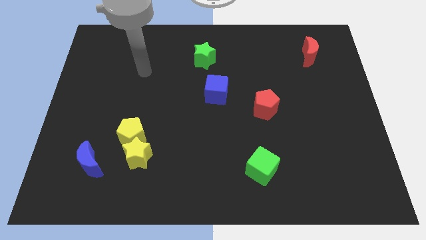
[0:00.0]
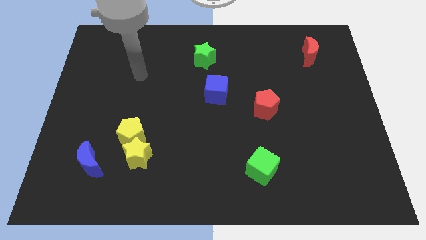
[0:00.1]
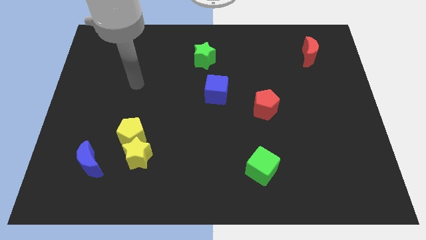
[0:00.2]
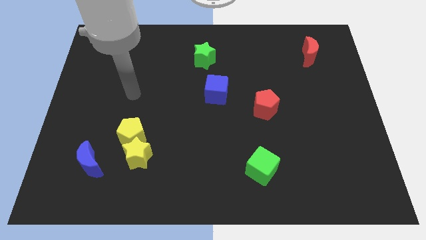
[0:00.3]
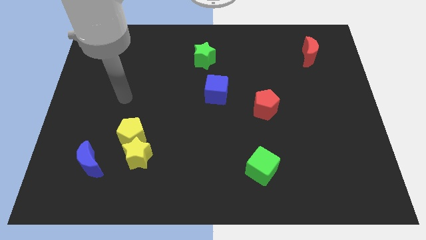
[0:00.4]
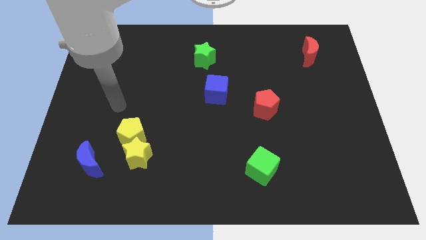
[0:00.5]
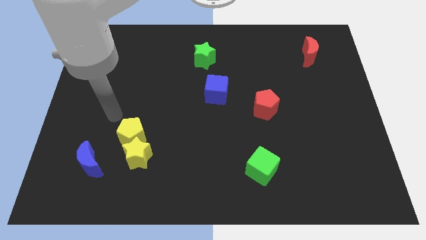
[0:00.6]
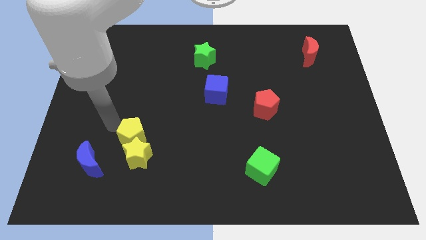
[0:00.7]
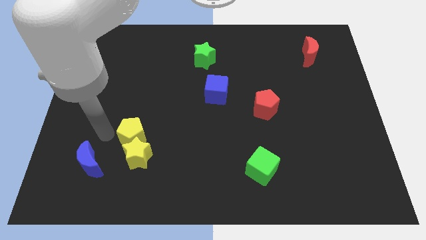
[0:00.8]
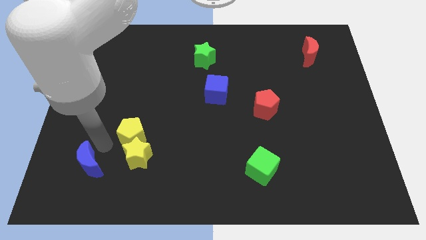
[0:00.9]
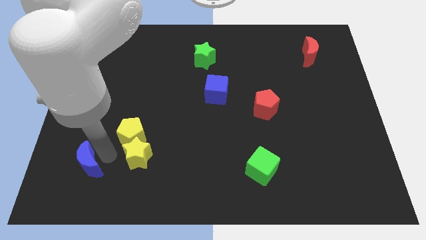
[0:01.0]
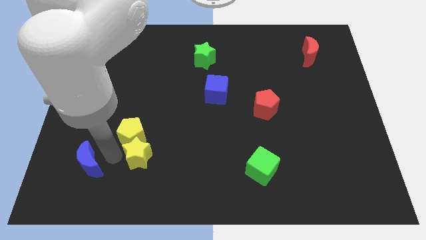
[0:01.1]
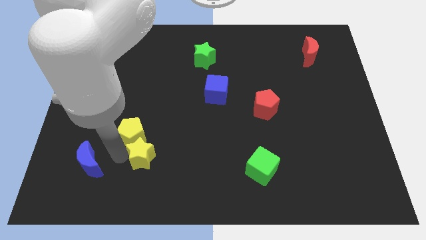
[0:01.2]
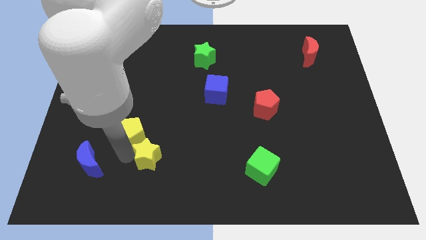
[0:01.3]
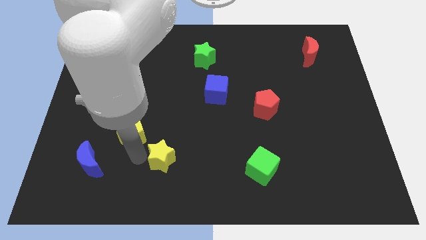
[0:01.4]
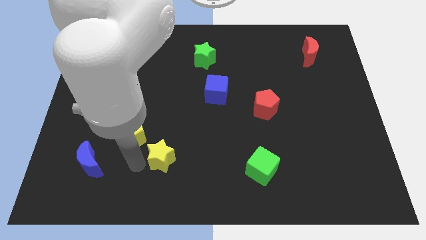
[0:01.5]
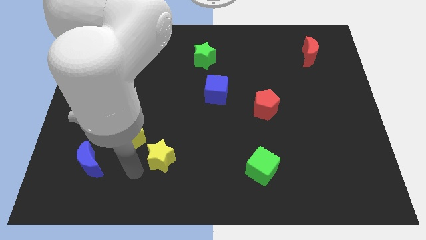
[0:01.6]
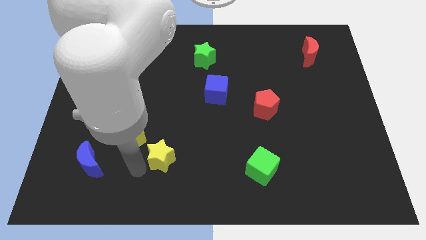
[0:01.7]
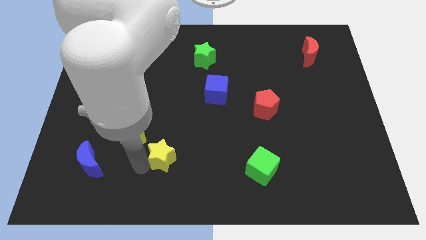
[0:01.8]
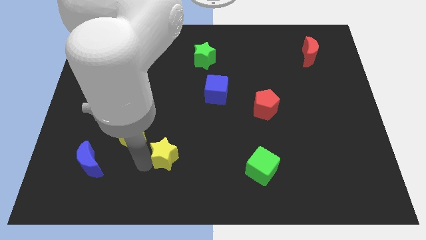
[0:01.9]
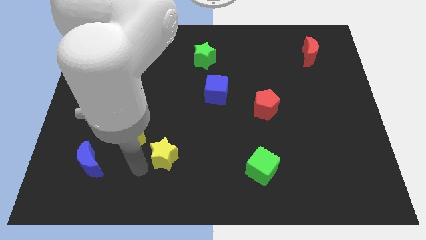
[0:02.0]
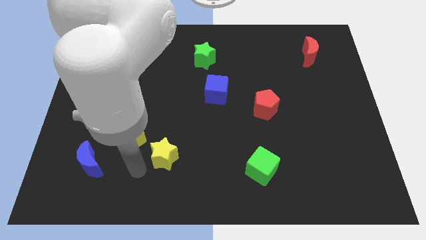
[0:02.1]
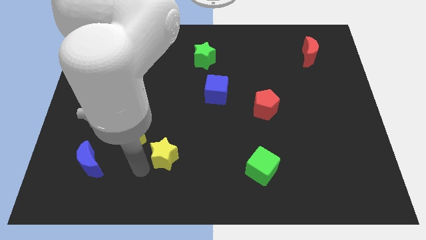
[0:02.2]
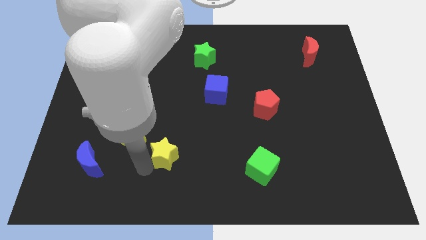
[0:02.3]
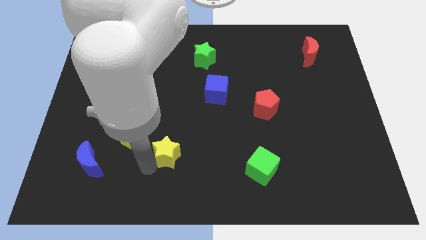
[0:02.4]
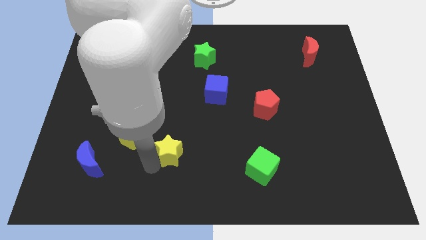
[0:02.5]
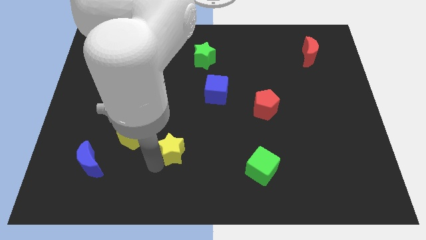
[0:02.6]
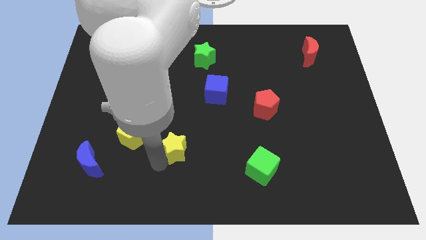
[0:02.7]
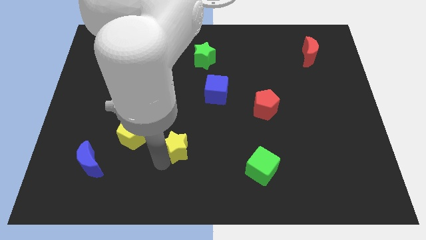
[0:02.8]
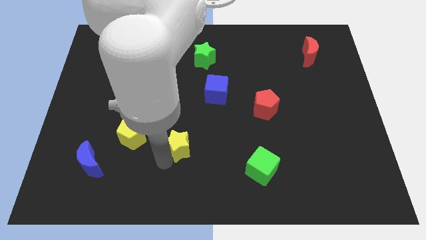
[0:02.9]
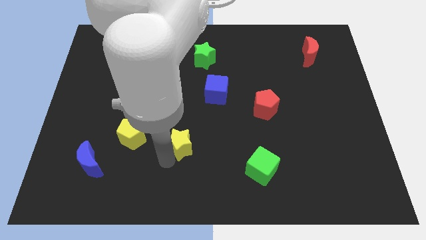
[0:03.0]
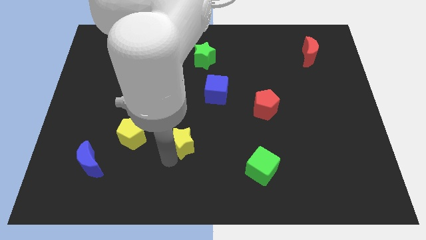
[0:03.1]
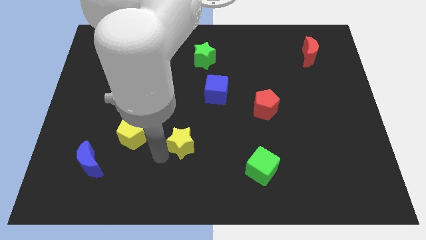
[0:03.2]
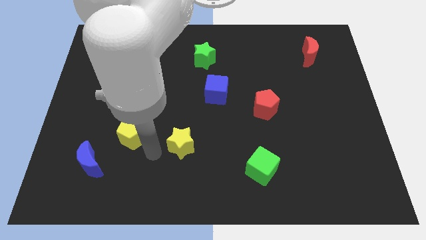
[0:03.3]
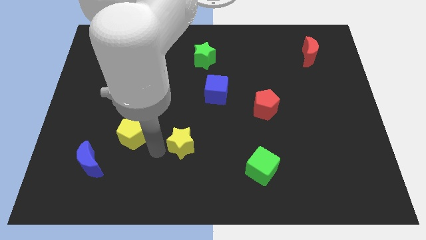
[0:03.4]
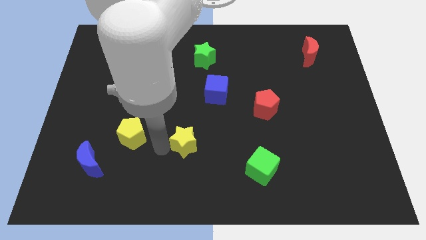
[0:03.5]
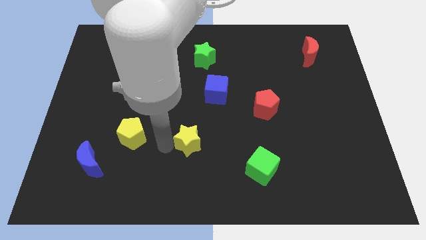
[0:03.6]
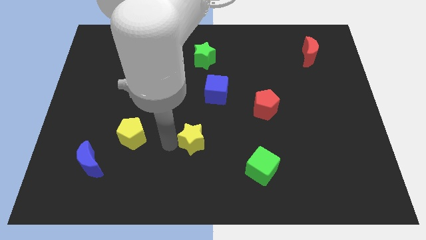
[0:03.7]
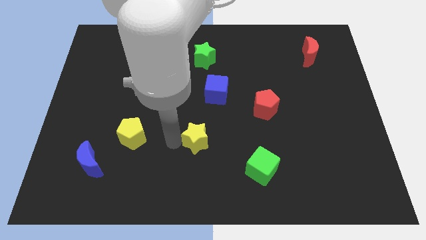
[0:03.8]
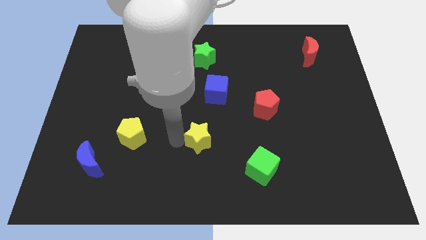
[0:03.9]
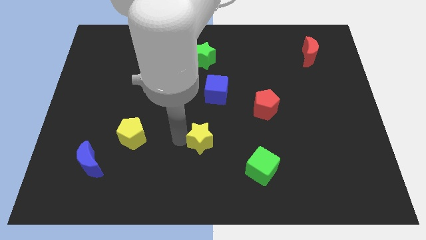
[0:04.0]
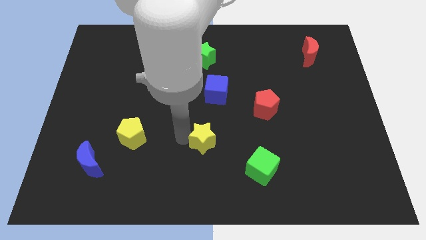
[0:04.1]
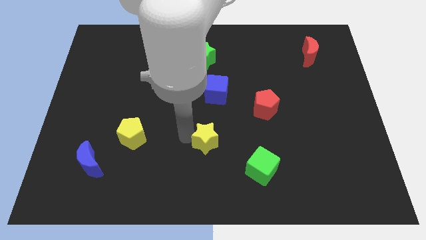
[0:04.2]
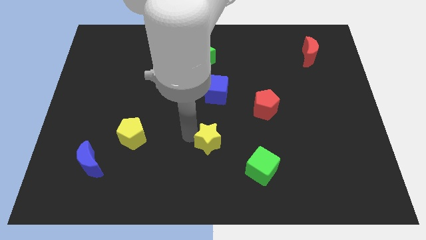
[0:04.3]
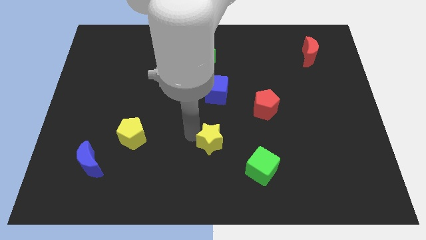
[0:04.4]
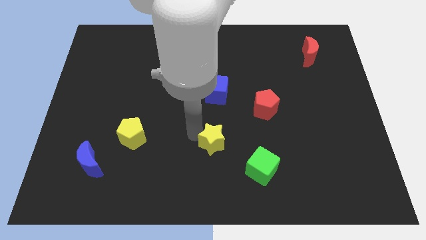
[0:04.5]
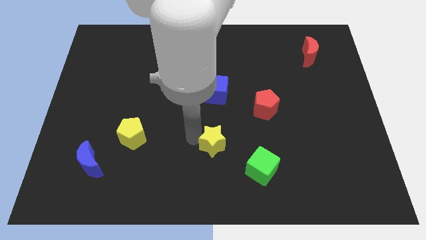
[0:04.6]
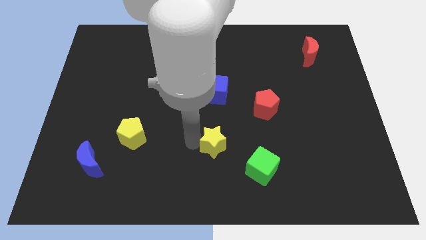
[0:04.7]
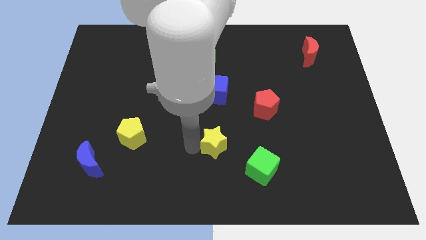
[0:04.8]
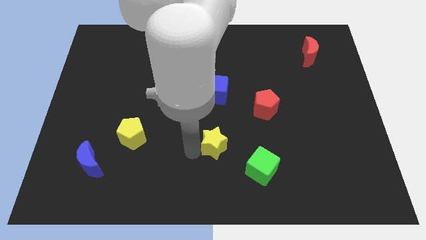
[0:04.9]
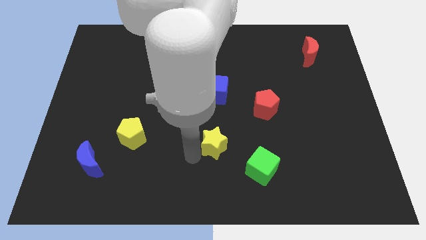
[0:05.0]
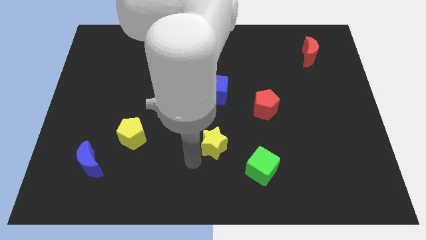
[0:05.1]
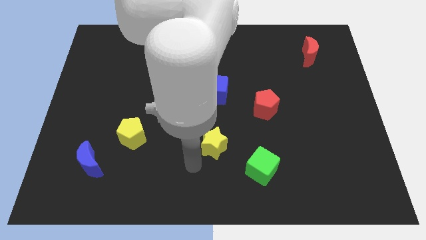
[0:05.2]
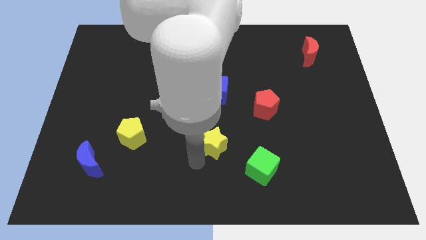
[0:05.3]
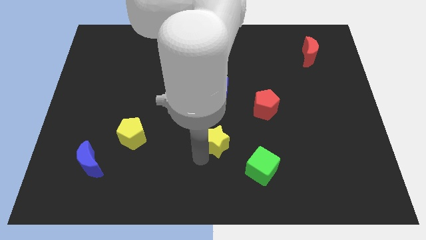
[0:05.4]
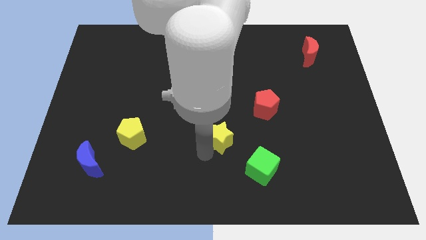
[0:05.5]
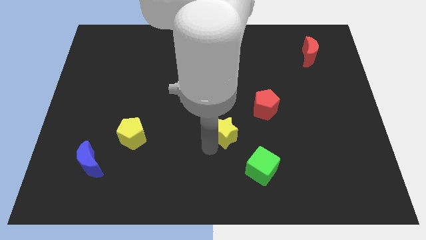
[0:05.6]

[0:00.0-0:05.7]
push the yellow star to the bottom left side of the red pentagon

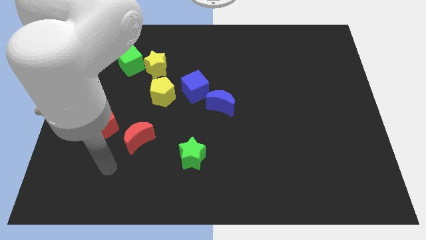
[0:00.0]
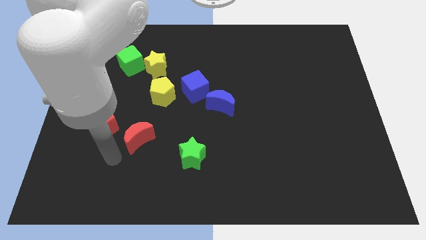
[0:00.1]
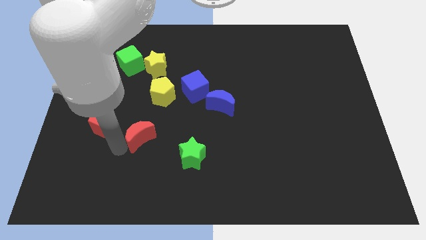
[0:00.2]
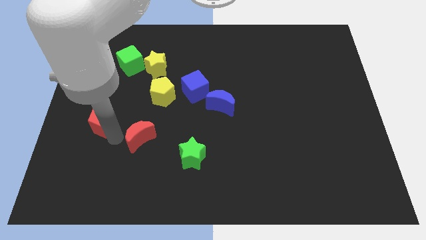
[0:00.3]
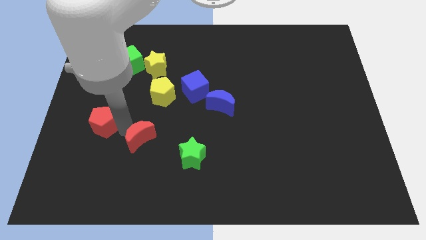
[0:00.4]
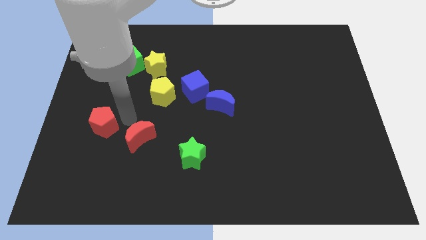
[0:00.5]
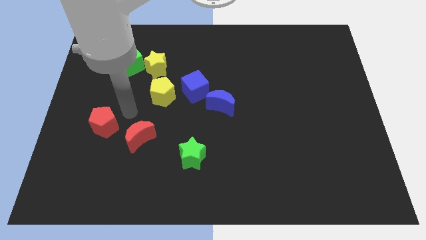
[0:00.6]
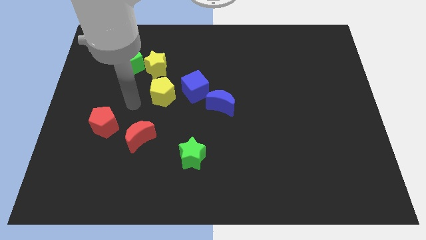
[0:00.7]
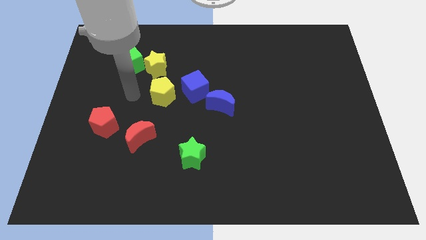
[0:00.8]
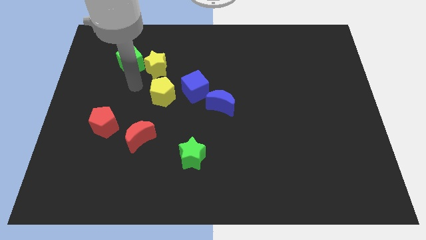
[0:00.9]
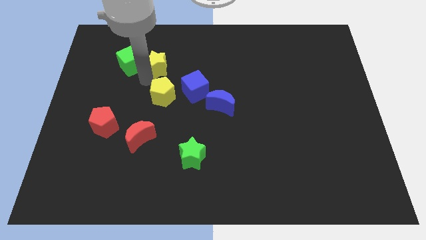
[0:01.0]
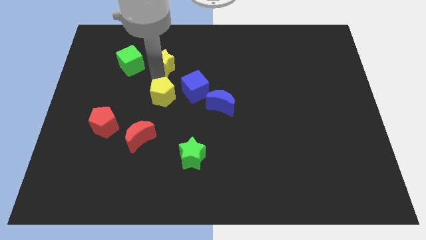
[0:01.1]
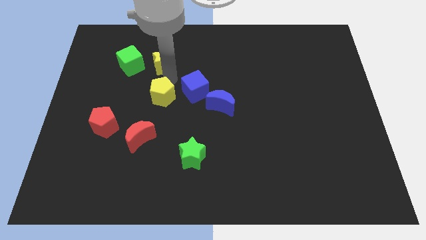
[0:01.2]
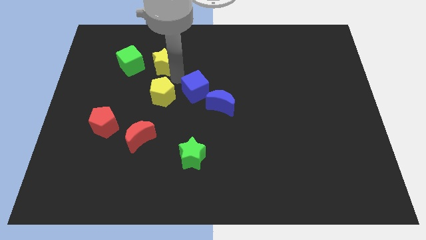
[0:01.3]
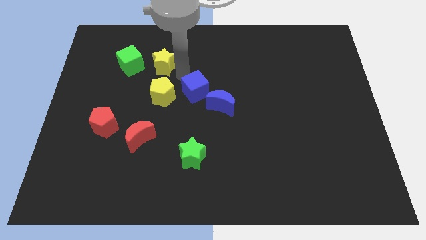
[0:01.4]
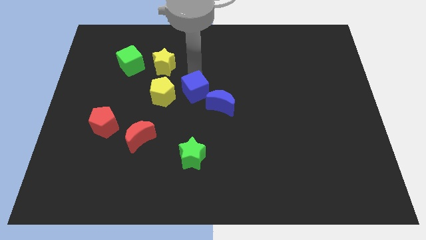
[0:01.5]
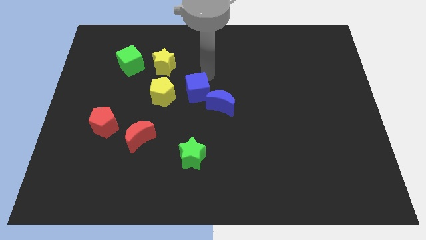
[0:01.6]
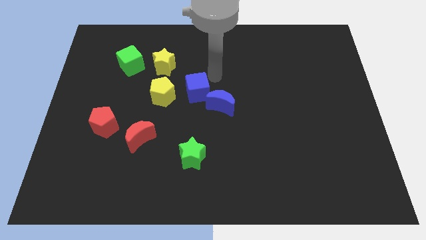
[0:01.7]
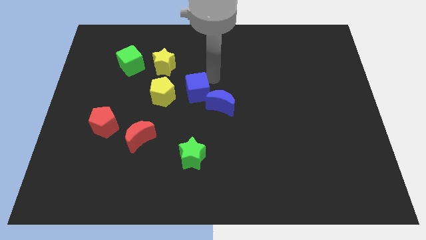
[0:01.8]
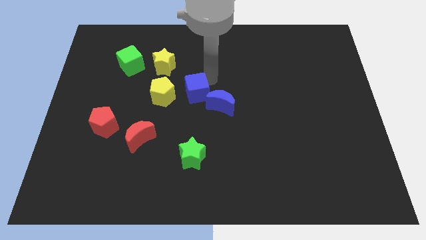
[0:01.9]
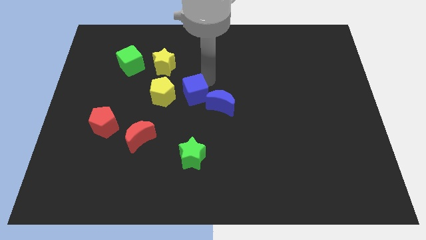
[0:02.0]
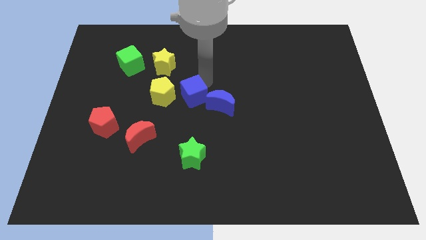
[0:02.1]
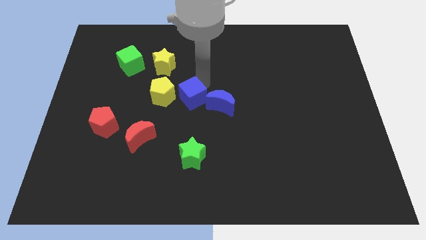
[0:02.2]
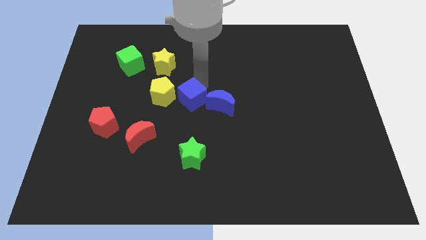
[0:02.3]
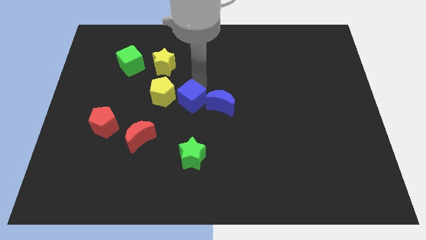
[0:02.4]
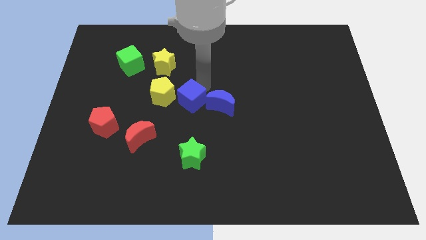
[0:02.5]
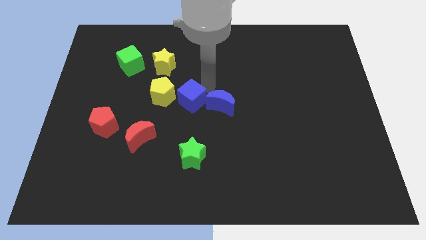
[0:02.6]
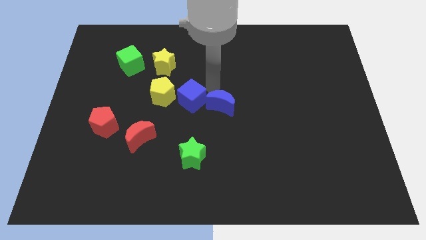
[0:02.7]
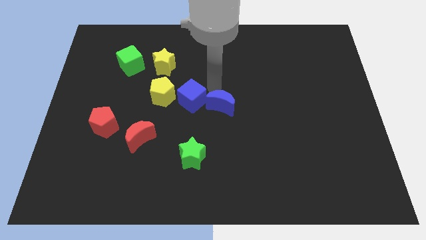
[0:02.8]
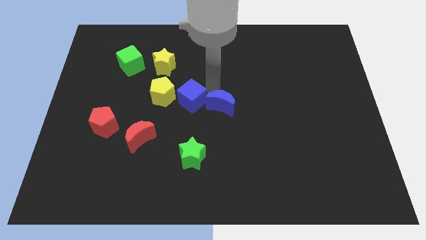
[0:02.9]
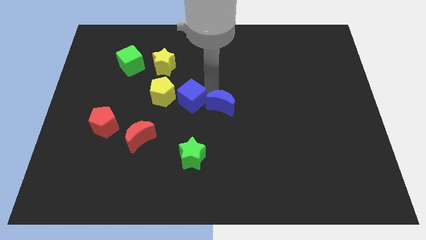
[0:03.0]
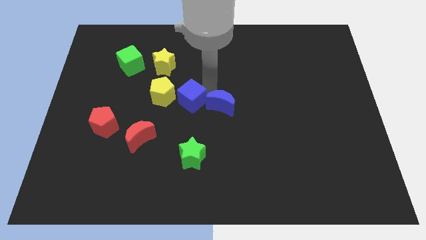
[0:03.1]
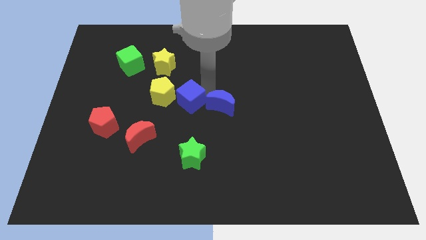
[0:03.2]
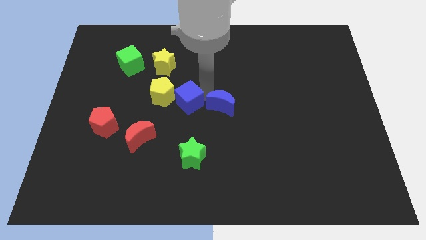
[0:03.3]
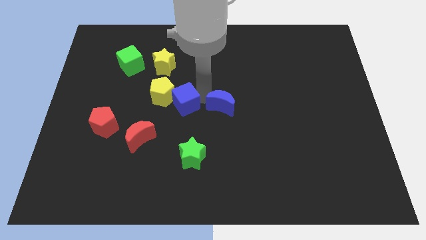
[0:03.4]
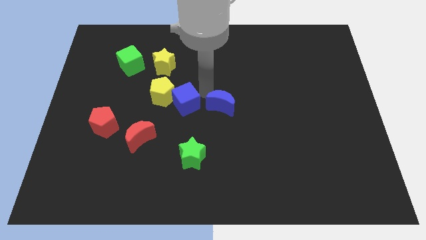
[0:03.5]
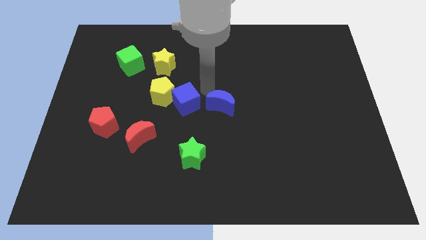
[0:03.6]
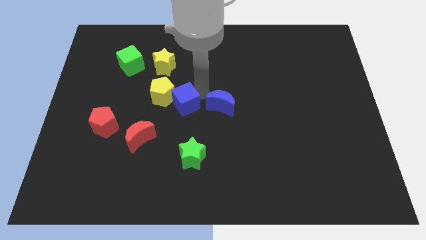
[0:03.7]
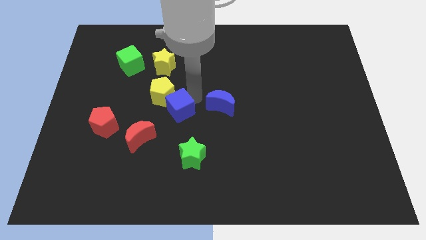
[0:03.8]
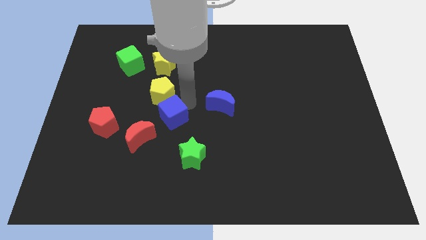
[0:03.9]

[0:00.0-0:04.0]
put the blue cube just right of the red pentagon
